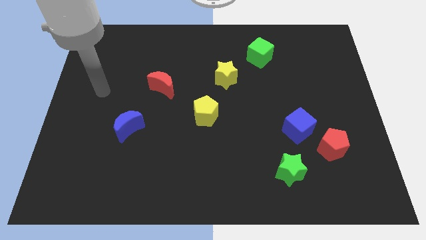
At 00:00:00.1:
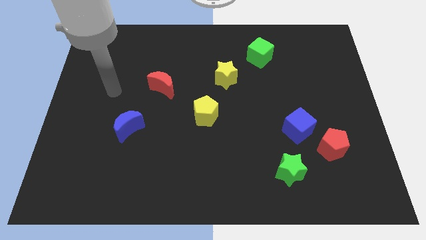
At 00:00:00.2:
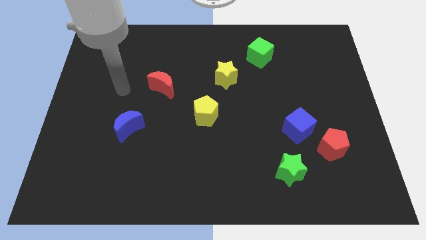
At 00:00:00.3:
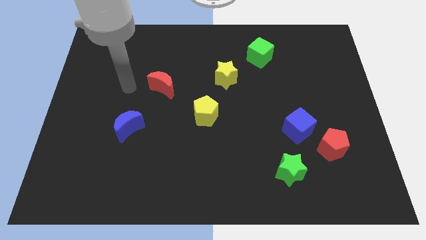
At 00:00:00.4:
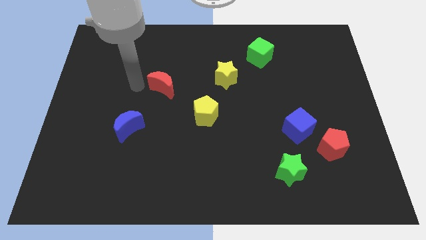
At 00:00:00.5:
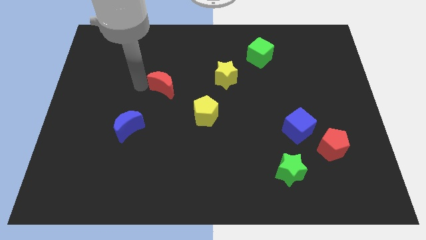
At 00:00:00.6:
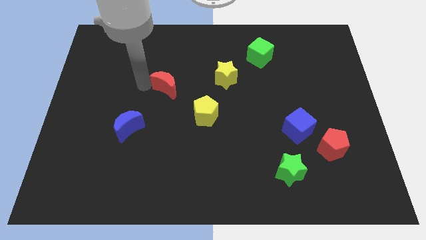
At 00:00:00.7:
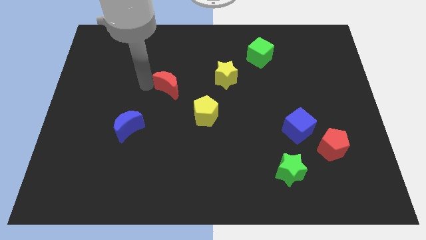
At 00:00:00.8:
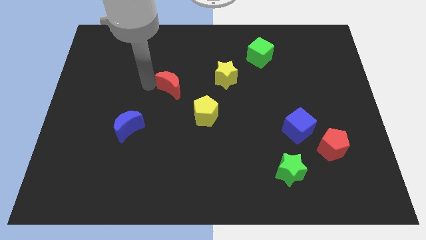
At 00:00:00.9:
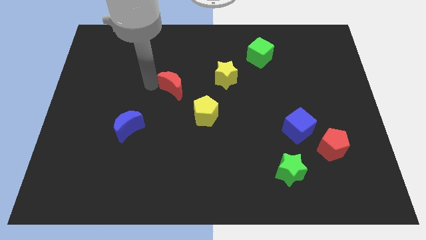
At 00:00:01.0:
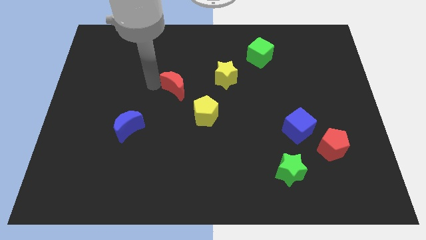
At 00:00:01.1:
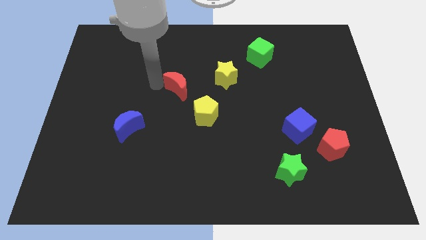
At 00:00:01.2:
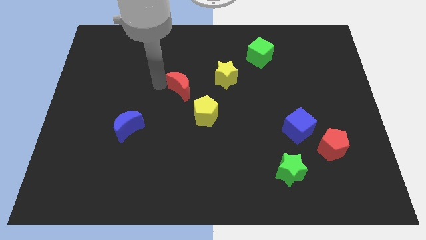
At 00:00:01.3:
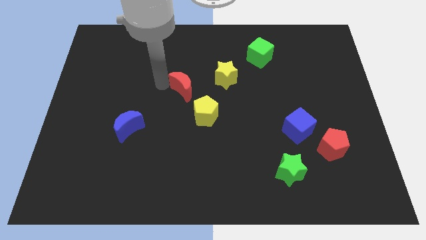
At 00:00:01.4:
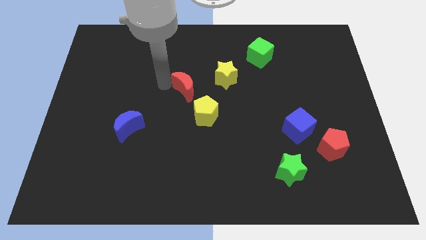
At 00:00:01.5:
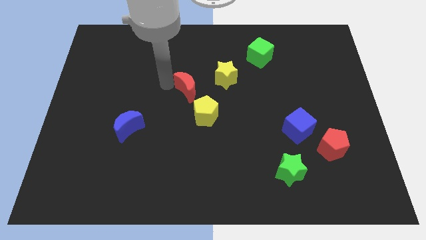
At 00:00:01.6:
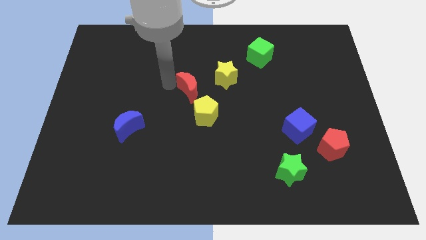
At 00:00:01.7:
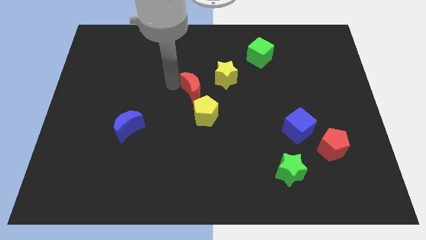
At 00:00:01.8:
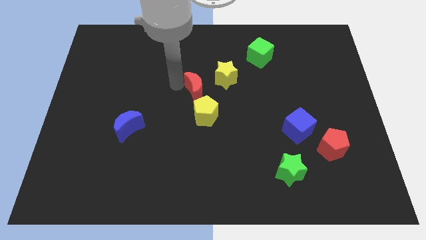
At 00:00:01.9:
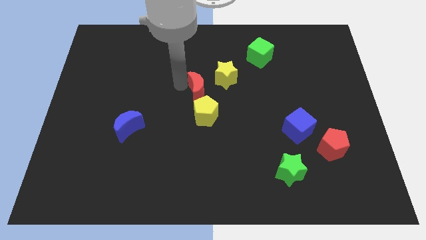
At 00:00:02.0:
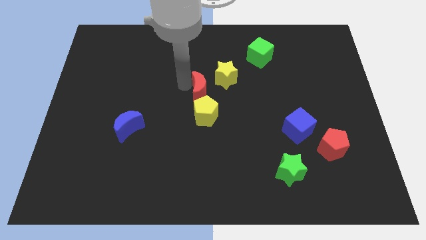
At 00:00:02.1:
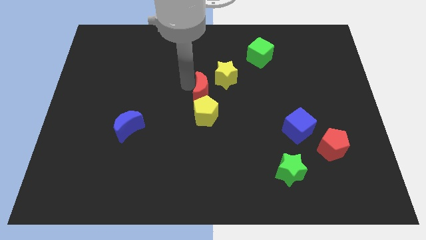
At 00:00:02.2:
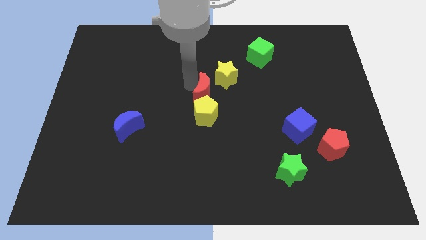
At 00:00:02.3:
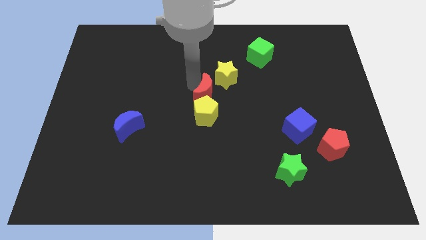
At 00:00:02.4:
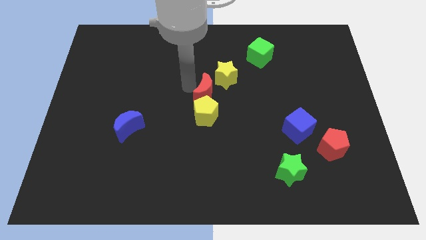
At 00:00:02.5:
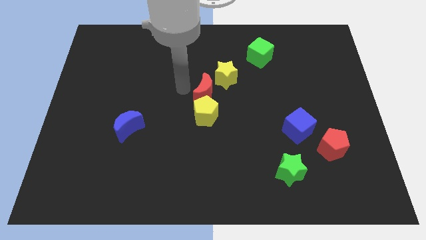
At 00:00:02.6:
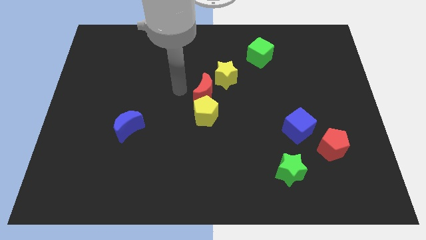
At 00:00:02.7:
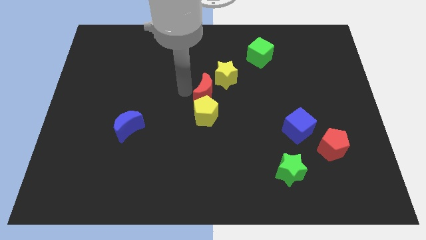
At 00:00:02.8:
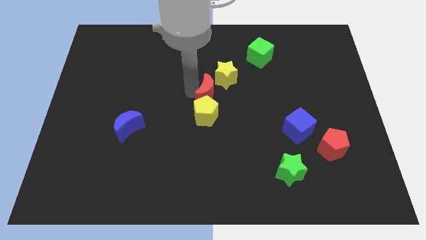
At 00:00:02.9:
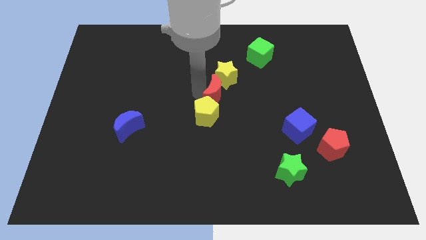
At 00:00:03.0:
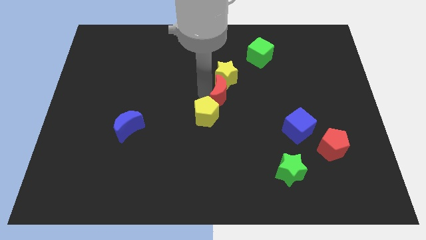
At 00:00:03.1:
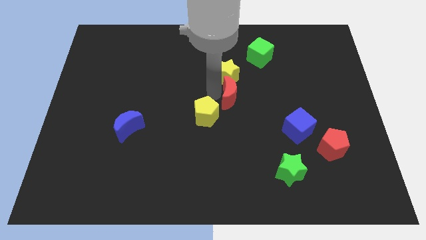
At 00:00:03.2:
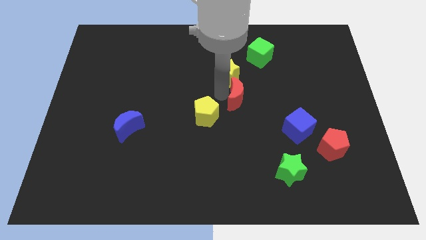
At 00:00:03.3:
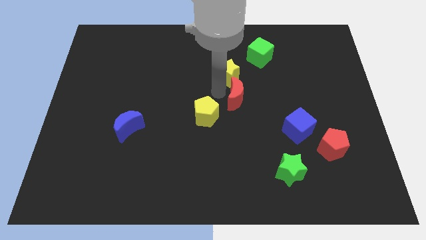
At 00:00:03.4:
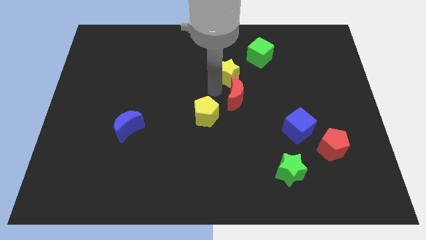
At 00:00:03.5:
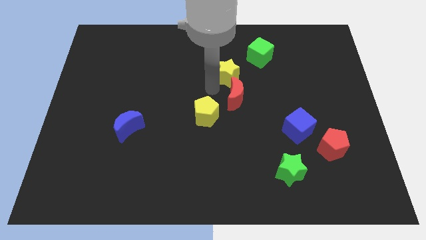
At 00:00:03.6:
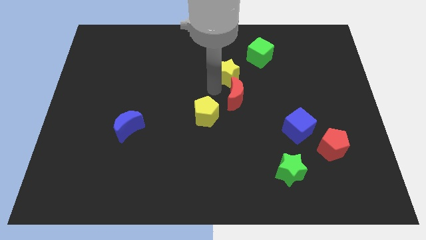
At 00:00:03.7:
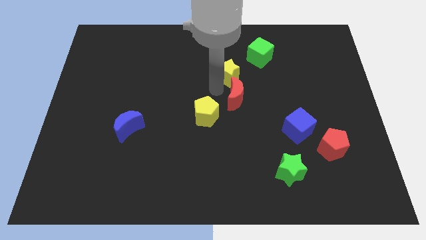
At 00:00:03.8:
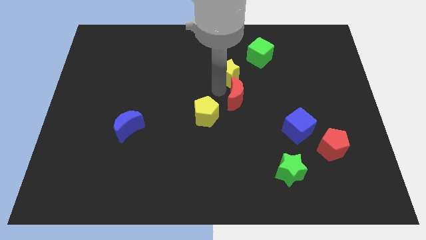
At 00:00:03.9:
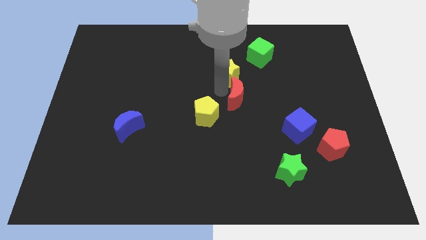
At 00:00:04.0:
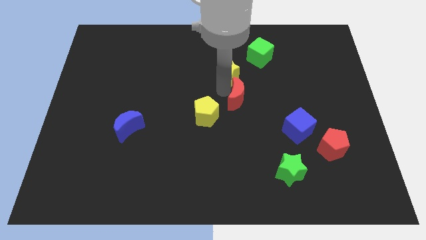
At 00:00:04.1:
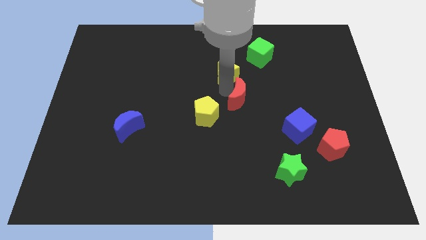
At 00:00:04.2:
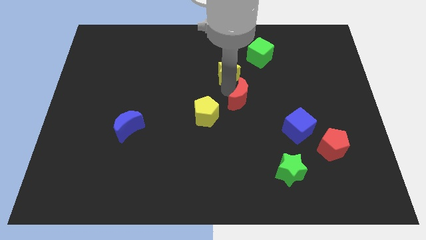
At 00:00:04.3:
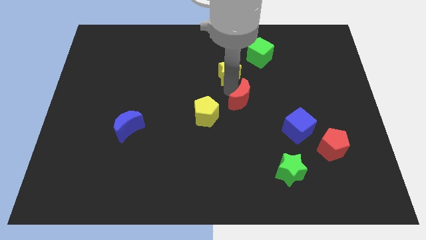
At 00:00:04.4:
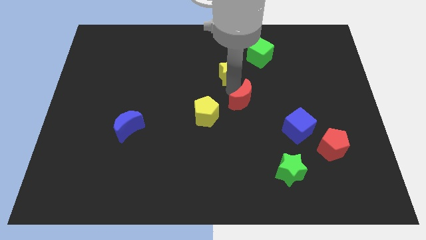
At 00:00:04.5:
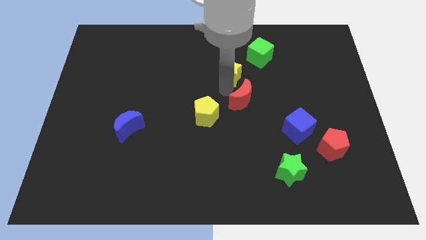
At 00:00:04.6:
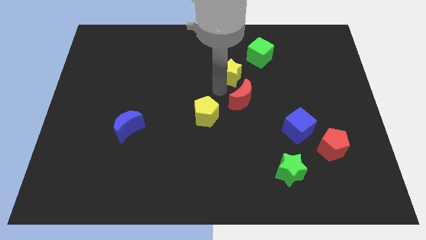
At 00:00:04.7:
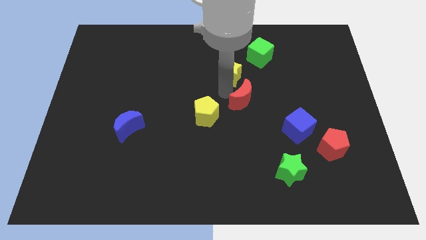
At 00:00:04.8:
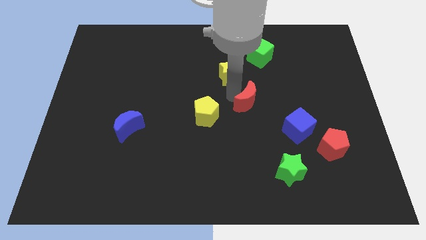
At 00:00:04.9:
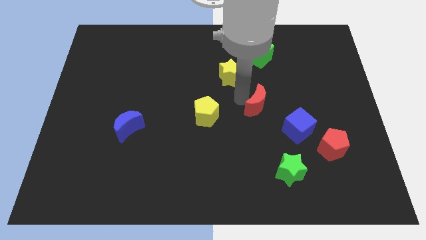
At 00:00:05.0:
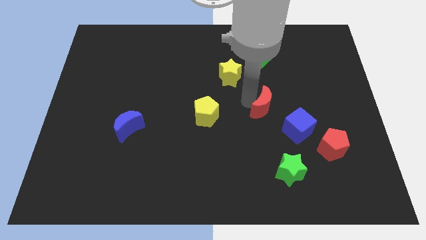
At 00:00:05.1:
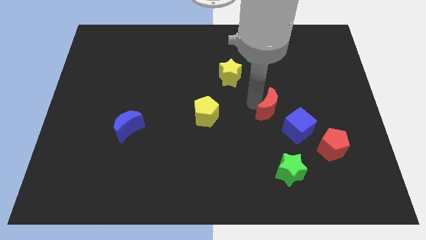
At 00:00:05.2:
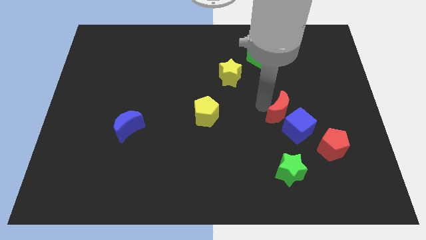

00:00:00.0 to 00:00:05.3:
push the red moon to the blue cube

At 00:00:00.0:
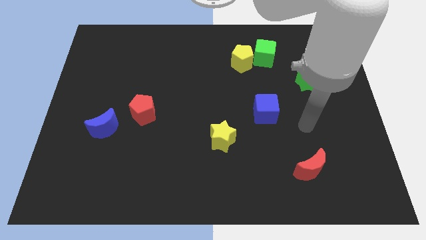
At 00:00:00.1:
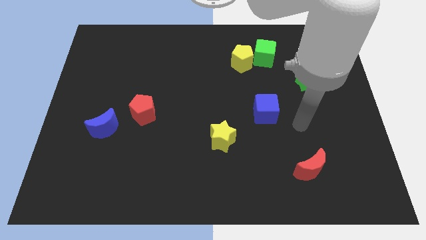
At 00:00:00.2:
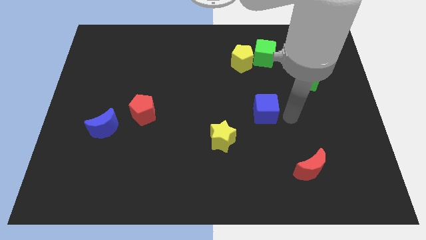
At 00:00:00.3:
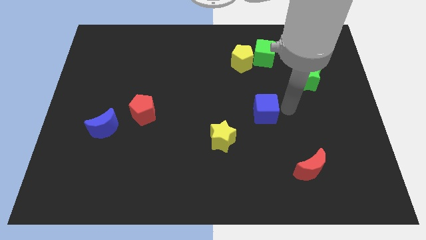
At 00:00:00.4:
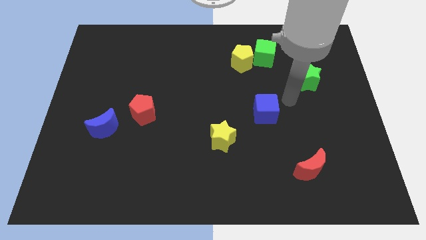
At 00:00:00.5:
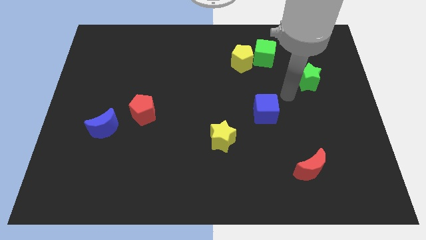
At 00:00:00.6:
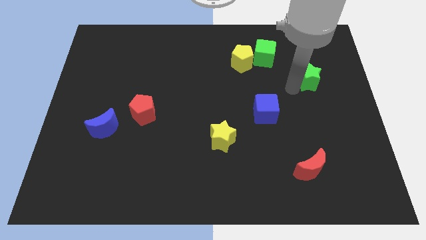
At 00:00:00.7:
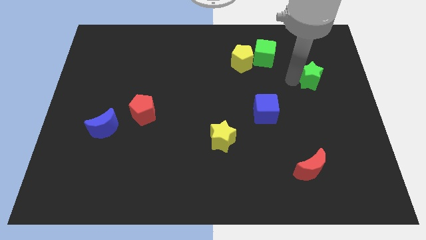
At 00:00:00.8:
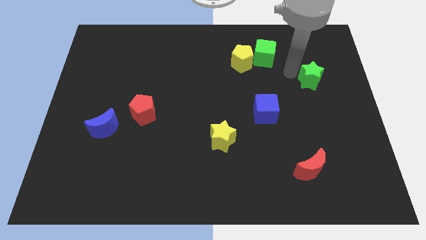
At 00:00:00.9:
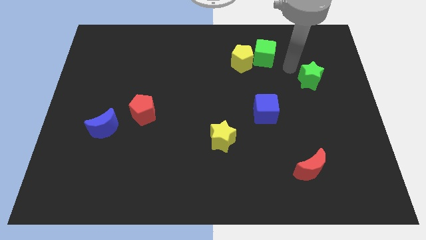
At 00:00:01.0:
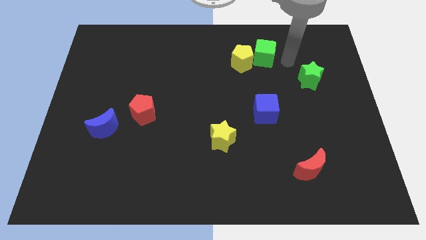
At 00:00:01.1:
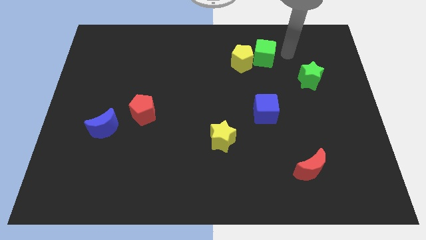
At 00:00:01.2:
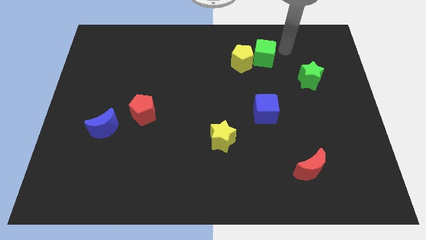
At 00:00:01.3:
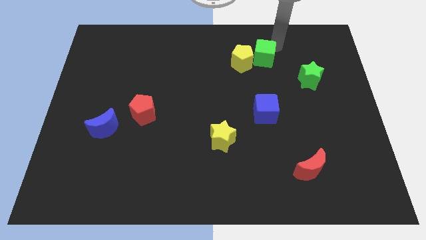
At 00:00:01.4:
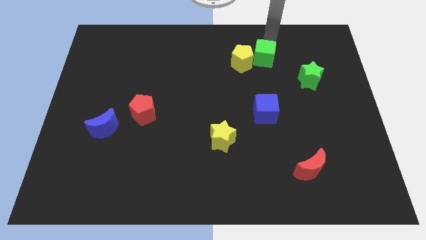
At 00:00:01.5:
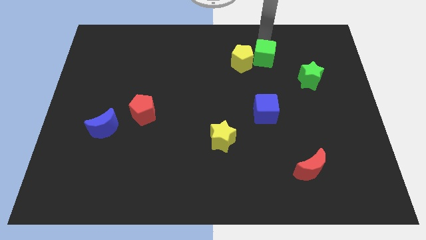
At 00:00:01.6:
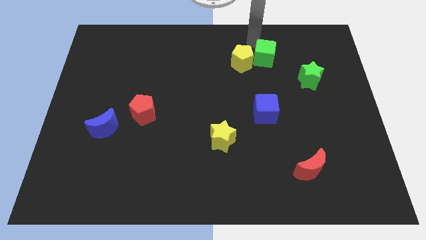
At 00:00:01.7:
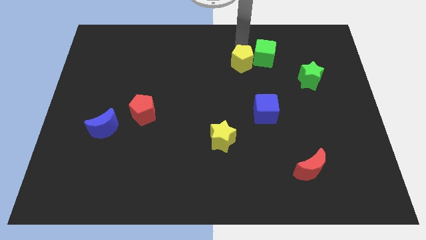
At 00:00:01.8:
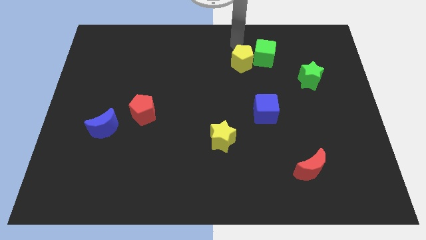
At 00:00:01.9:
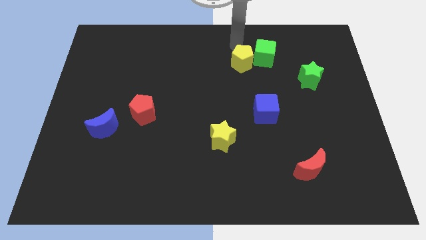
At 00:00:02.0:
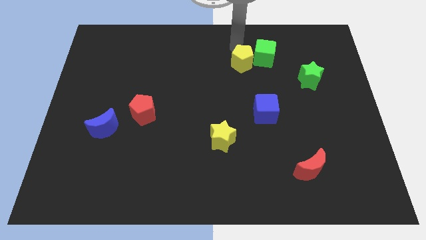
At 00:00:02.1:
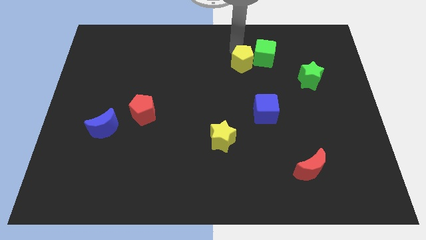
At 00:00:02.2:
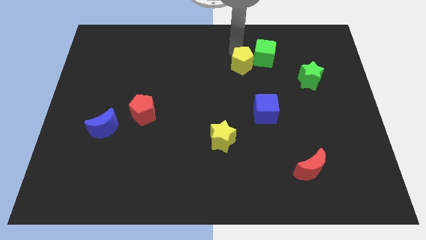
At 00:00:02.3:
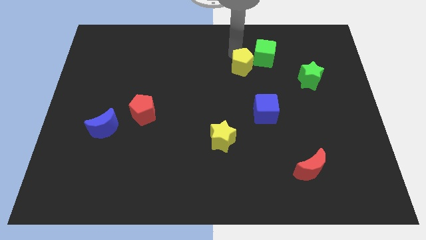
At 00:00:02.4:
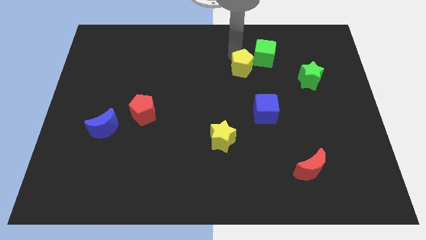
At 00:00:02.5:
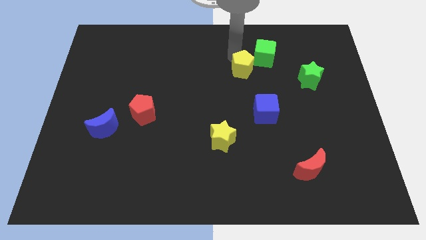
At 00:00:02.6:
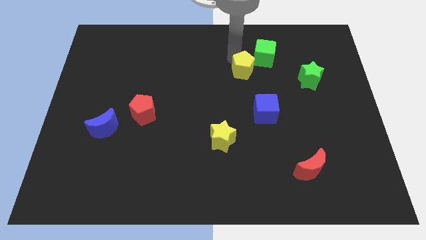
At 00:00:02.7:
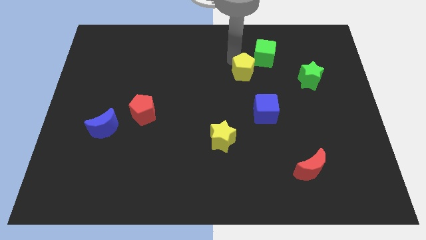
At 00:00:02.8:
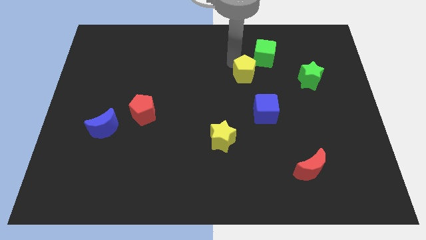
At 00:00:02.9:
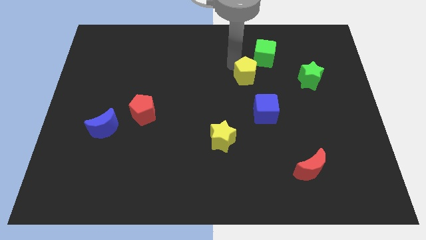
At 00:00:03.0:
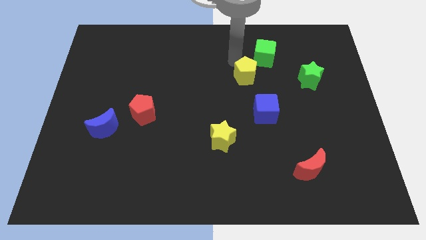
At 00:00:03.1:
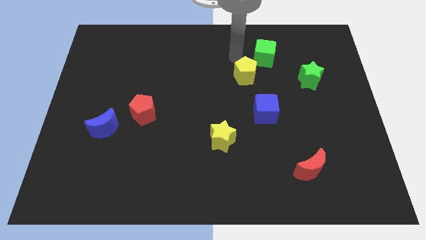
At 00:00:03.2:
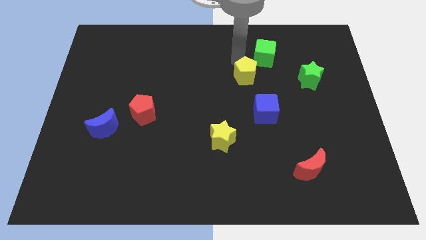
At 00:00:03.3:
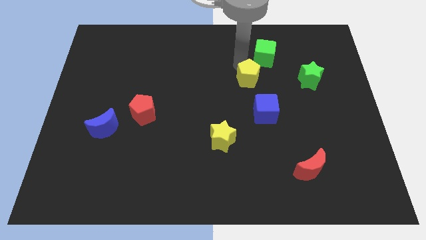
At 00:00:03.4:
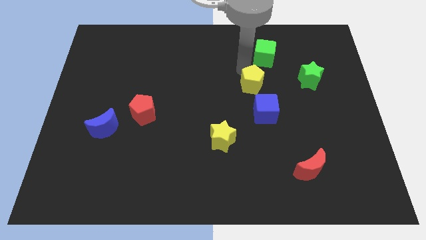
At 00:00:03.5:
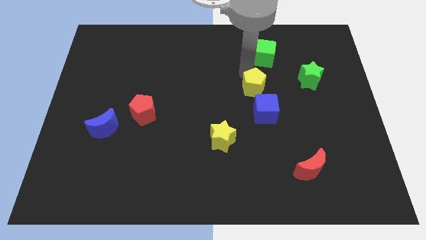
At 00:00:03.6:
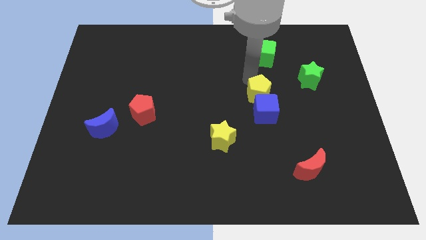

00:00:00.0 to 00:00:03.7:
put the yellow pentagon close to the blue cube
